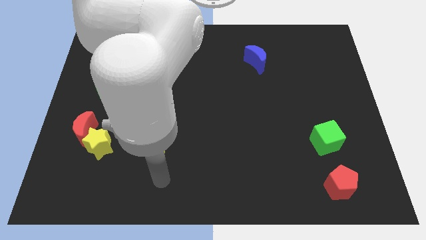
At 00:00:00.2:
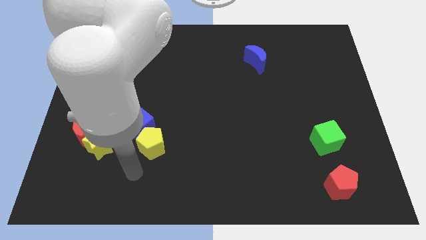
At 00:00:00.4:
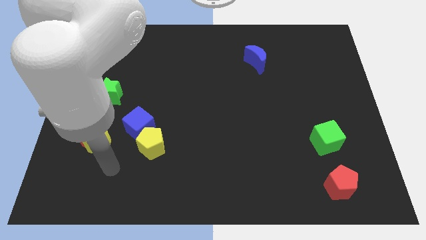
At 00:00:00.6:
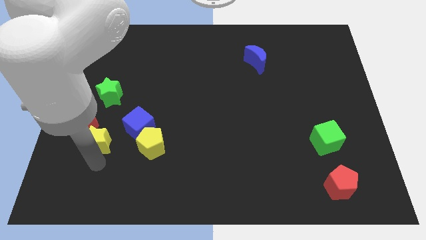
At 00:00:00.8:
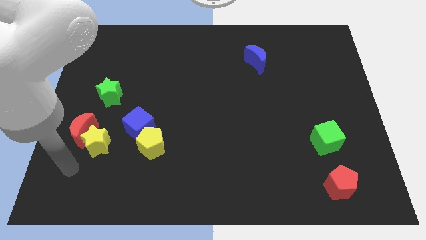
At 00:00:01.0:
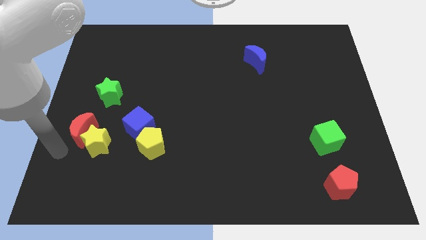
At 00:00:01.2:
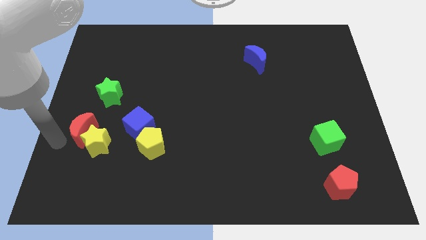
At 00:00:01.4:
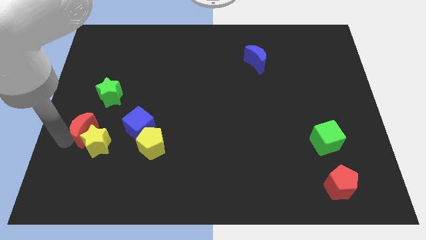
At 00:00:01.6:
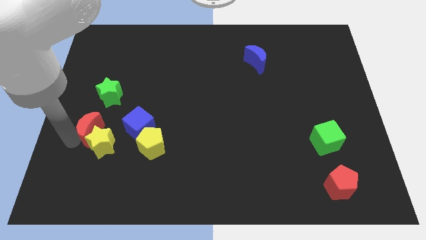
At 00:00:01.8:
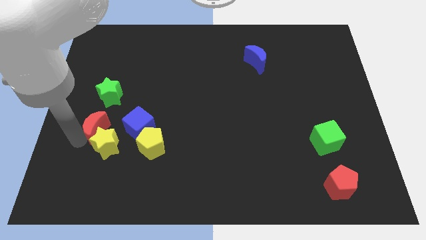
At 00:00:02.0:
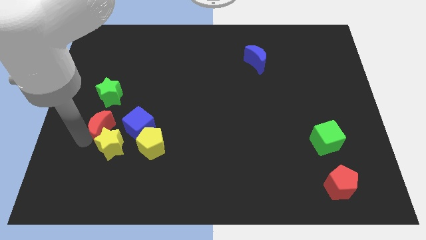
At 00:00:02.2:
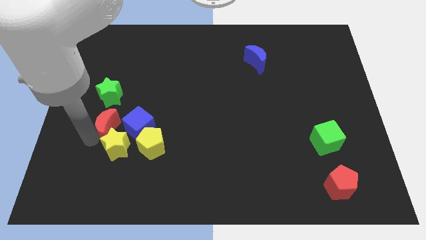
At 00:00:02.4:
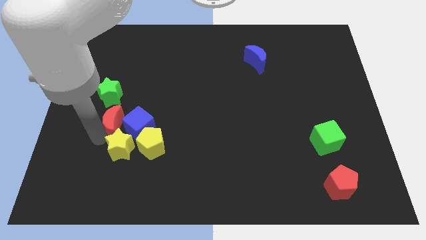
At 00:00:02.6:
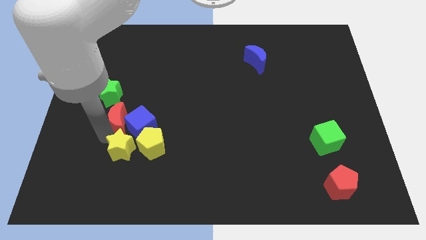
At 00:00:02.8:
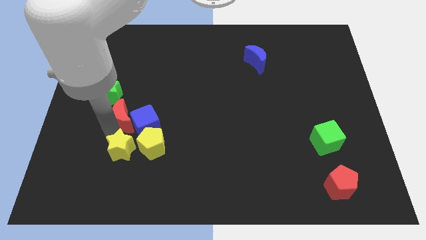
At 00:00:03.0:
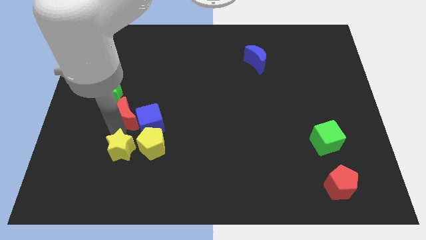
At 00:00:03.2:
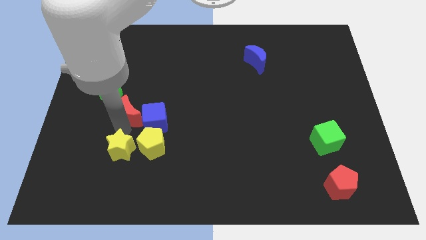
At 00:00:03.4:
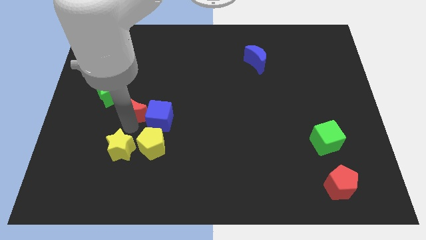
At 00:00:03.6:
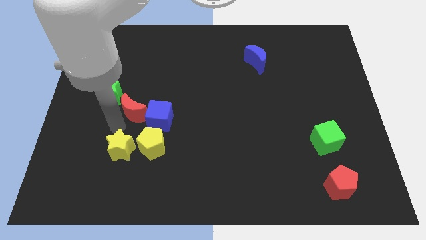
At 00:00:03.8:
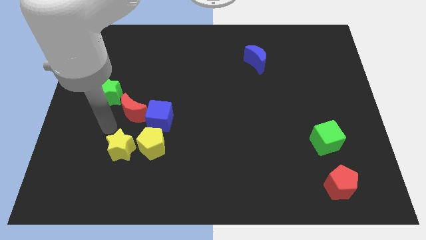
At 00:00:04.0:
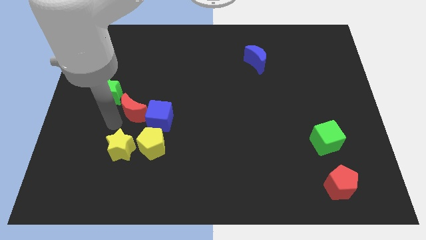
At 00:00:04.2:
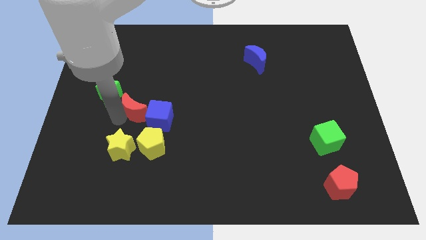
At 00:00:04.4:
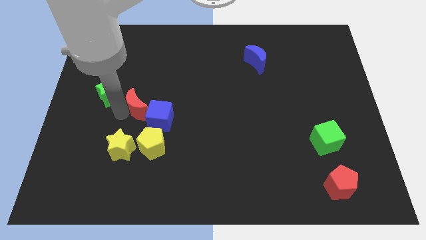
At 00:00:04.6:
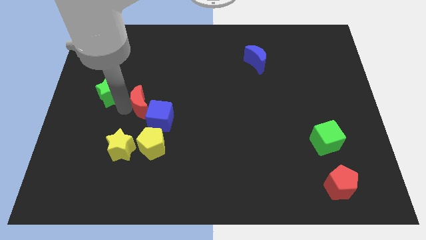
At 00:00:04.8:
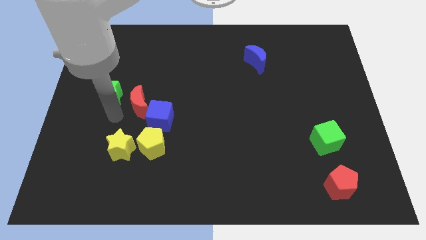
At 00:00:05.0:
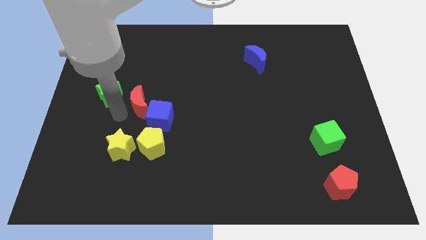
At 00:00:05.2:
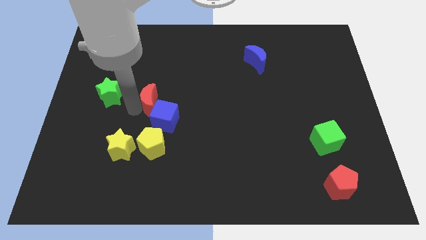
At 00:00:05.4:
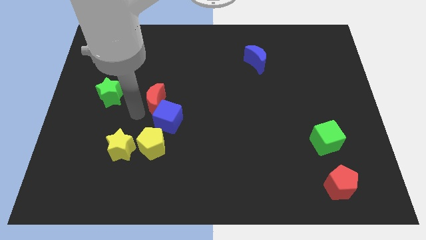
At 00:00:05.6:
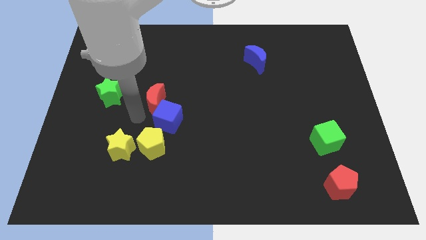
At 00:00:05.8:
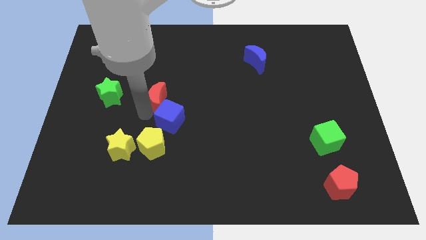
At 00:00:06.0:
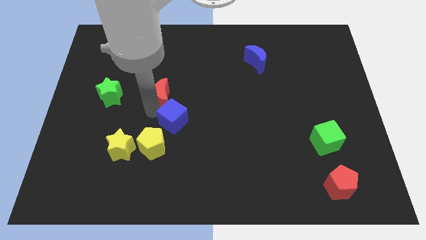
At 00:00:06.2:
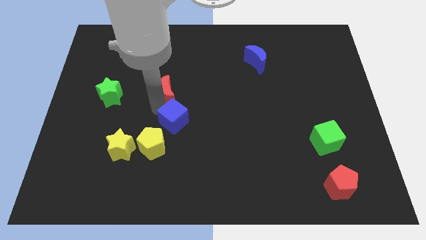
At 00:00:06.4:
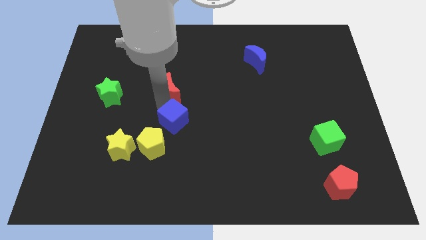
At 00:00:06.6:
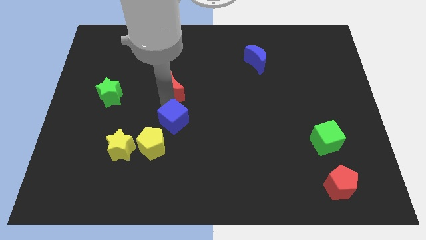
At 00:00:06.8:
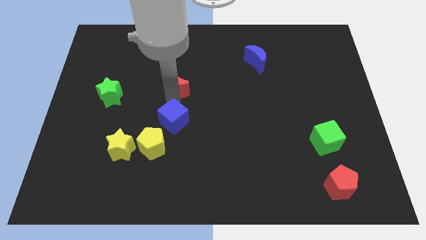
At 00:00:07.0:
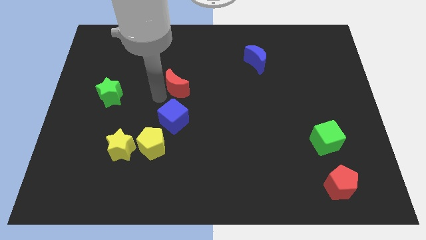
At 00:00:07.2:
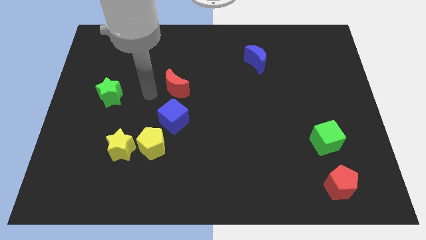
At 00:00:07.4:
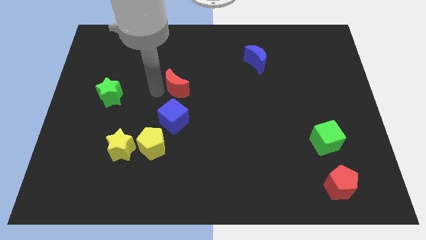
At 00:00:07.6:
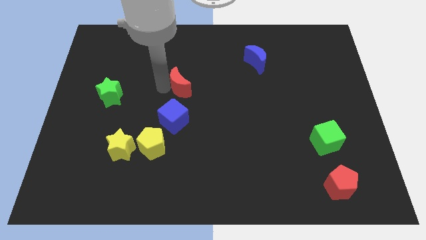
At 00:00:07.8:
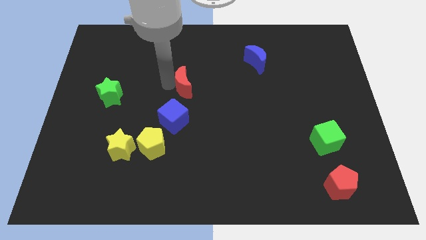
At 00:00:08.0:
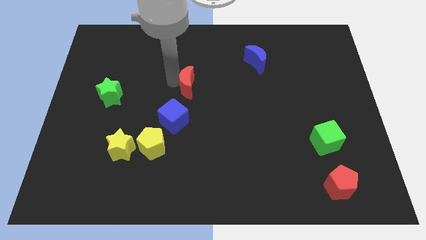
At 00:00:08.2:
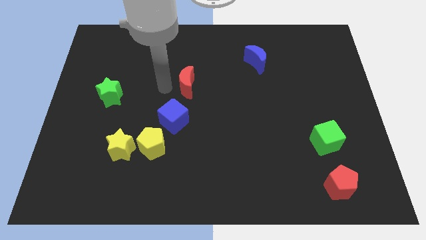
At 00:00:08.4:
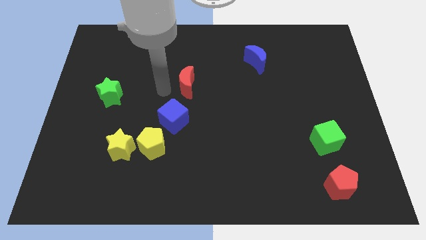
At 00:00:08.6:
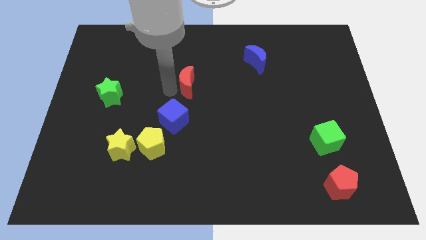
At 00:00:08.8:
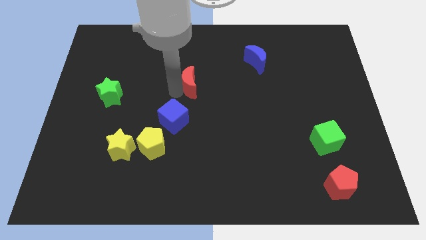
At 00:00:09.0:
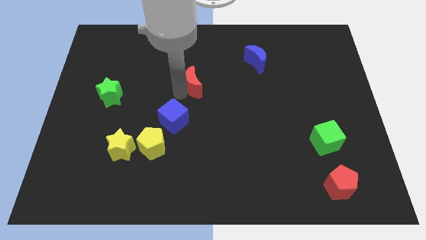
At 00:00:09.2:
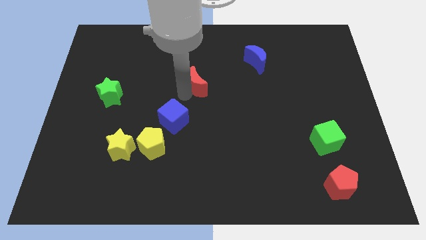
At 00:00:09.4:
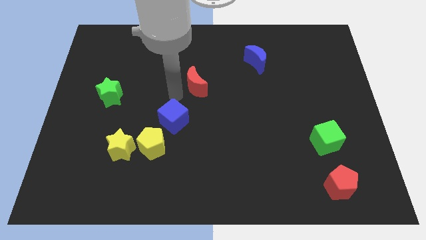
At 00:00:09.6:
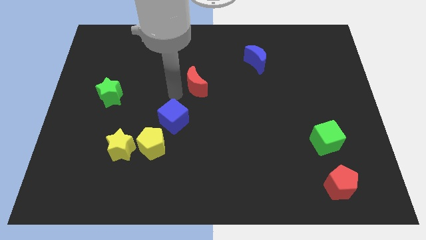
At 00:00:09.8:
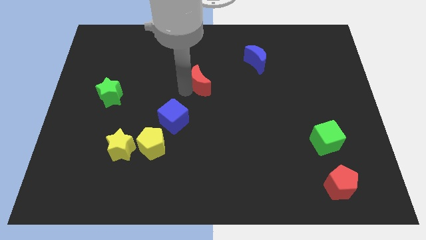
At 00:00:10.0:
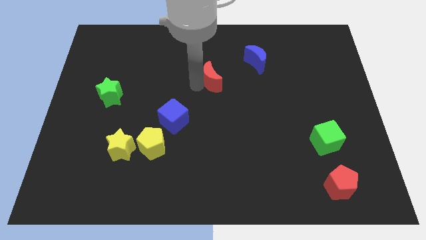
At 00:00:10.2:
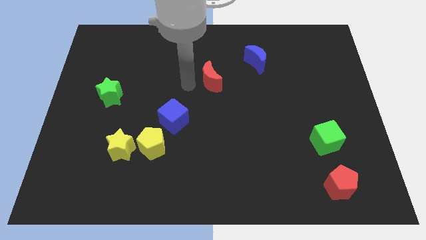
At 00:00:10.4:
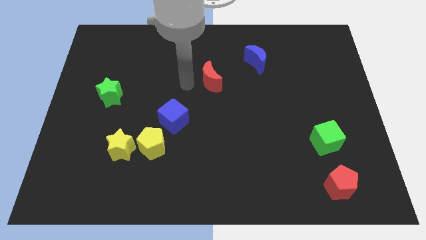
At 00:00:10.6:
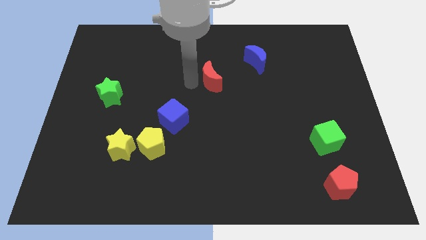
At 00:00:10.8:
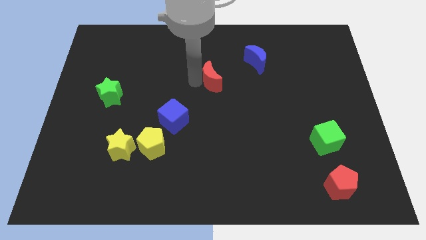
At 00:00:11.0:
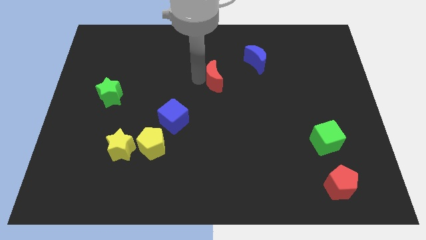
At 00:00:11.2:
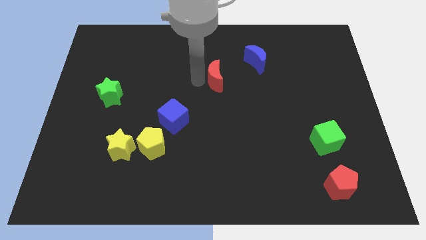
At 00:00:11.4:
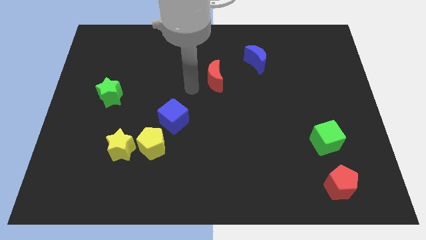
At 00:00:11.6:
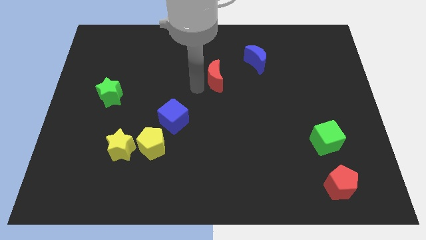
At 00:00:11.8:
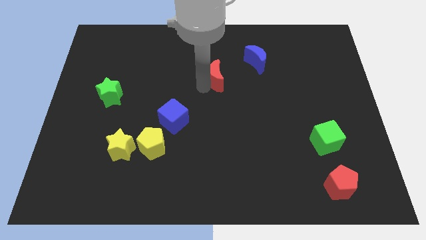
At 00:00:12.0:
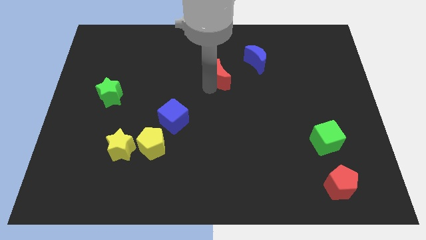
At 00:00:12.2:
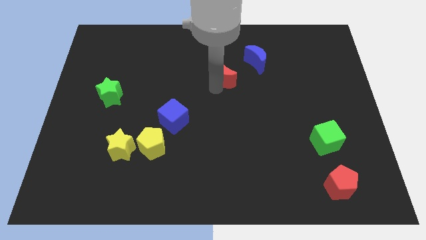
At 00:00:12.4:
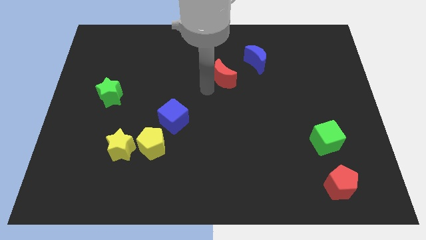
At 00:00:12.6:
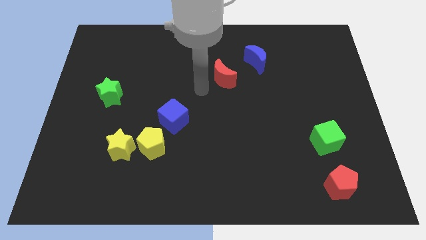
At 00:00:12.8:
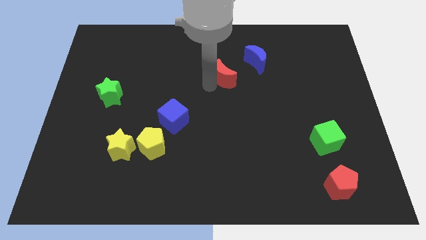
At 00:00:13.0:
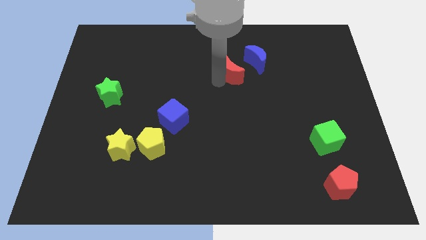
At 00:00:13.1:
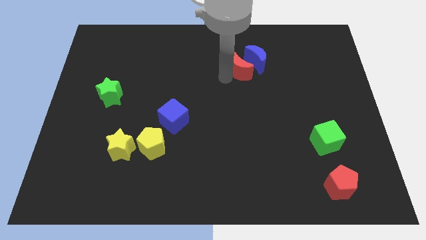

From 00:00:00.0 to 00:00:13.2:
slide the red moon towards the blue moon

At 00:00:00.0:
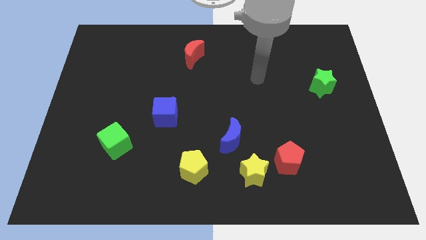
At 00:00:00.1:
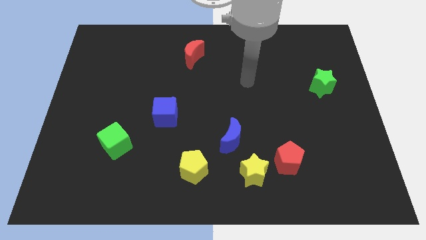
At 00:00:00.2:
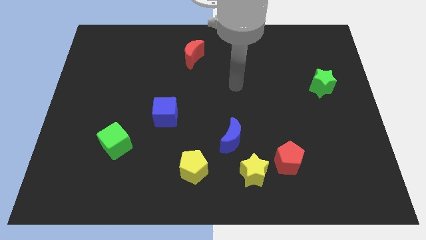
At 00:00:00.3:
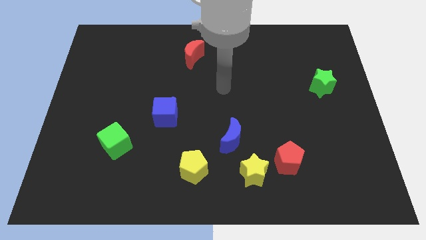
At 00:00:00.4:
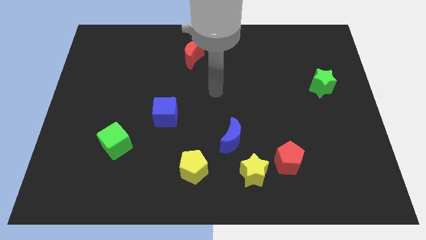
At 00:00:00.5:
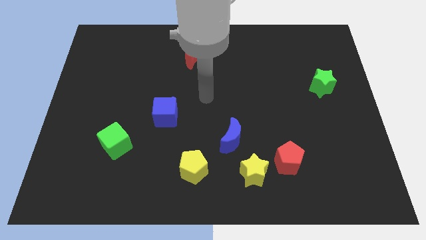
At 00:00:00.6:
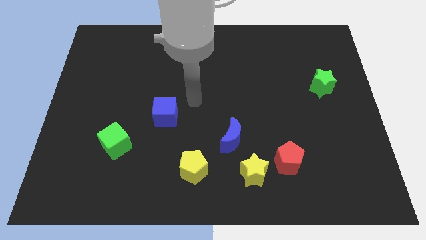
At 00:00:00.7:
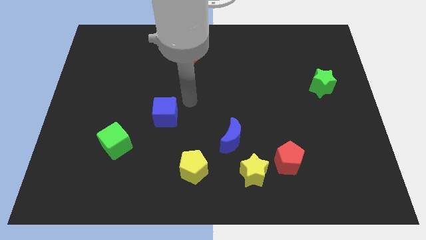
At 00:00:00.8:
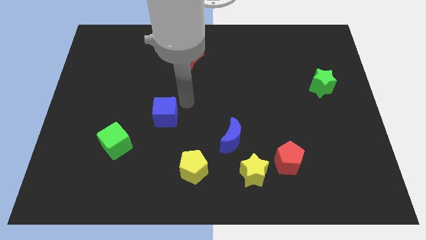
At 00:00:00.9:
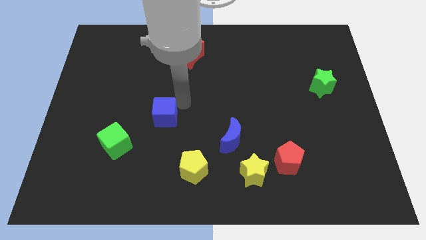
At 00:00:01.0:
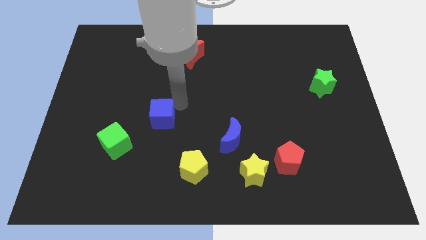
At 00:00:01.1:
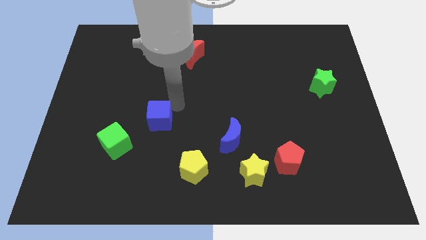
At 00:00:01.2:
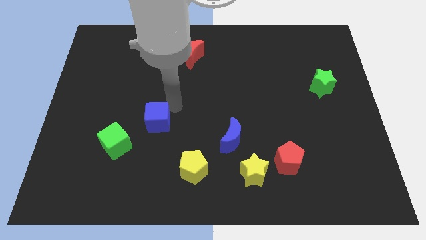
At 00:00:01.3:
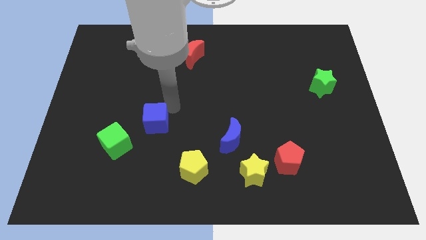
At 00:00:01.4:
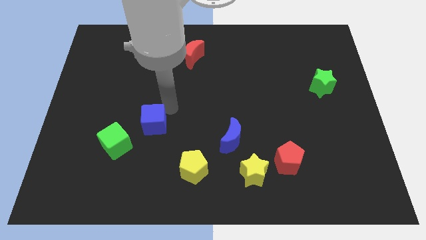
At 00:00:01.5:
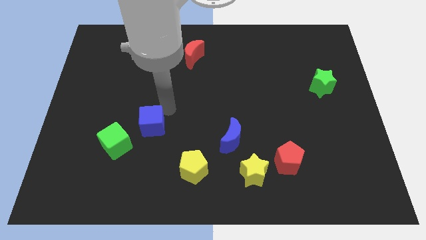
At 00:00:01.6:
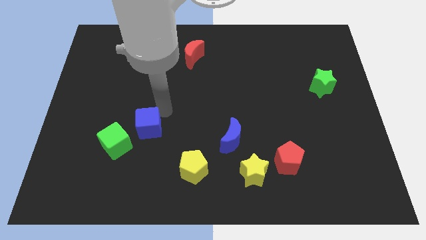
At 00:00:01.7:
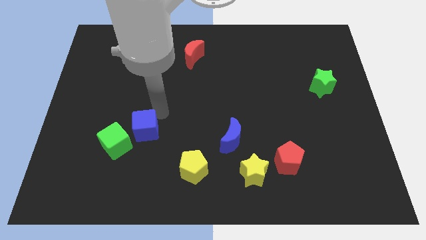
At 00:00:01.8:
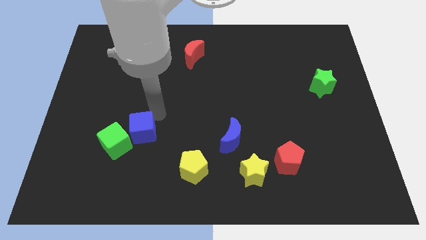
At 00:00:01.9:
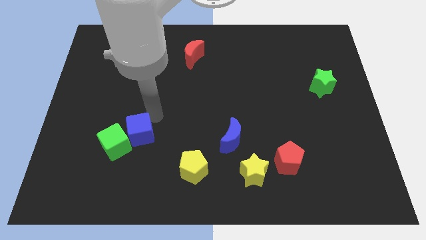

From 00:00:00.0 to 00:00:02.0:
put the blue cube to the green cube
